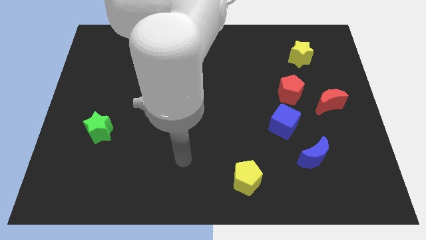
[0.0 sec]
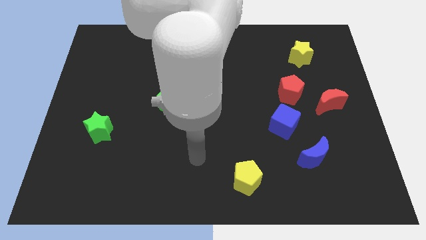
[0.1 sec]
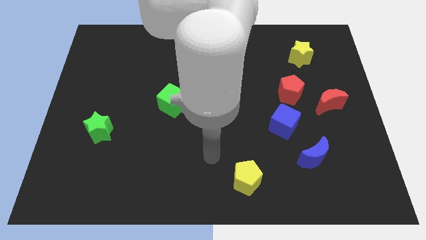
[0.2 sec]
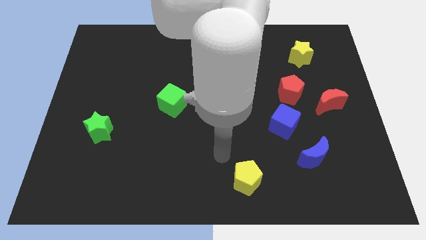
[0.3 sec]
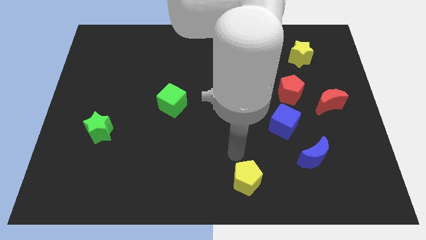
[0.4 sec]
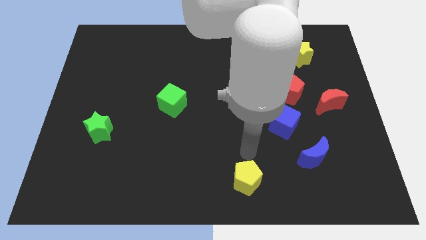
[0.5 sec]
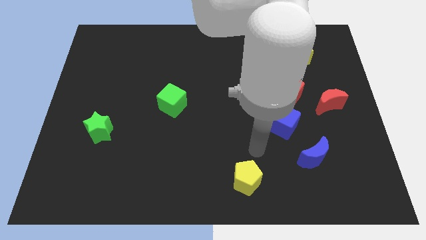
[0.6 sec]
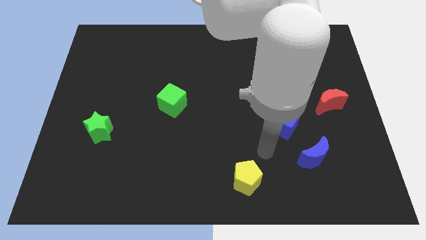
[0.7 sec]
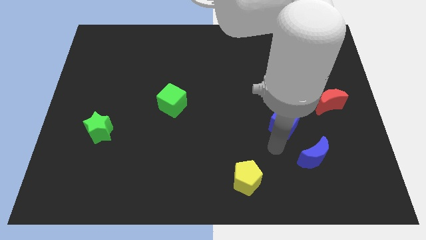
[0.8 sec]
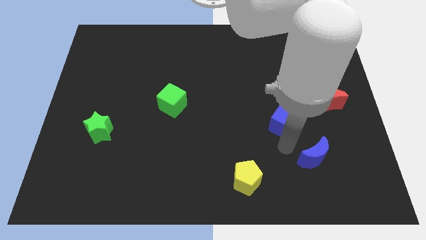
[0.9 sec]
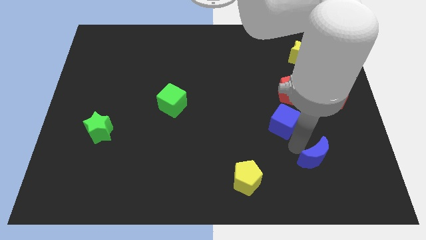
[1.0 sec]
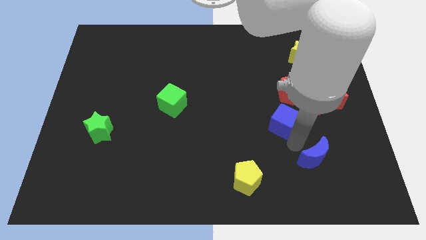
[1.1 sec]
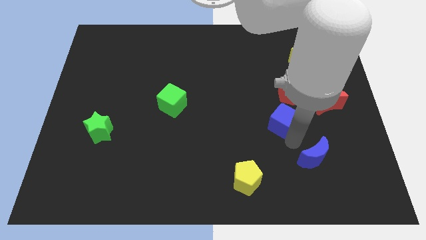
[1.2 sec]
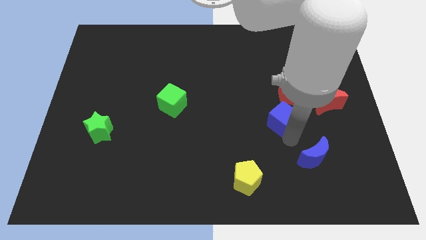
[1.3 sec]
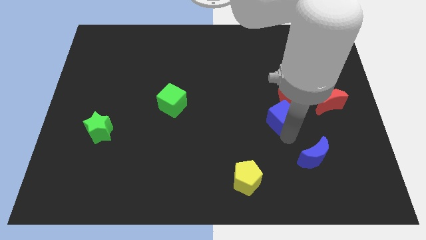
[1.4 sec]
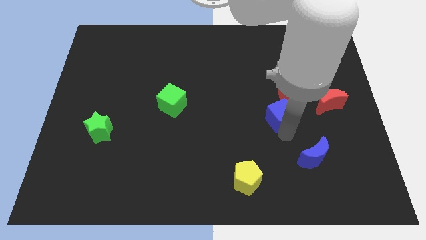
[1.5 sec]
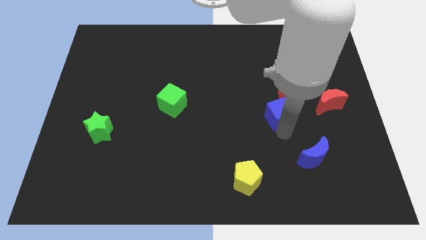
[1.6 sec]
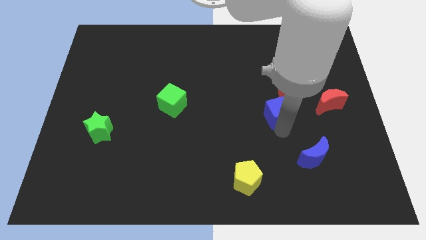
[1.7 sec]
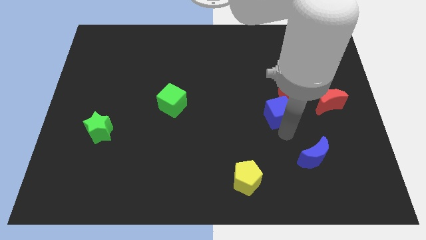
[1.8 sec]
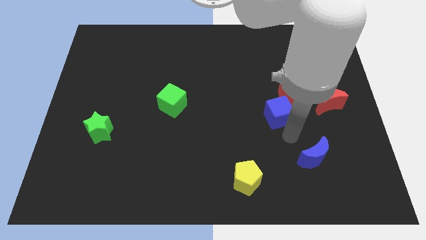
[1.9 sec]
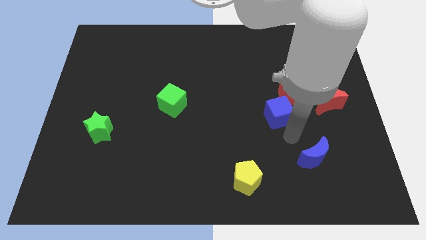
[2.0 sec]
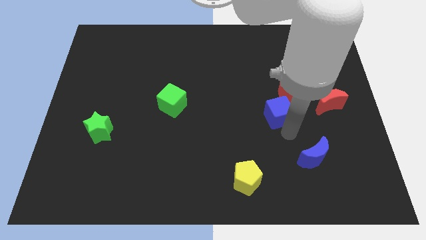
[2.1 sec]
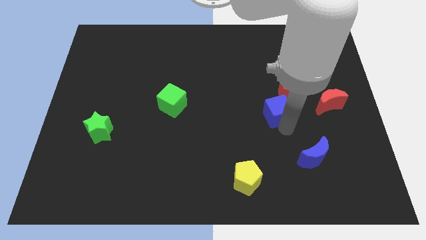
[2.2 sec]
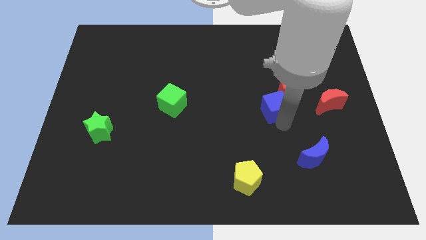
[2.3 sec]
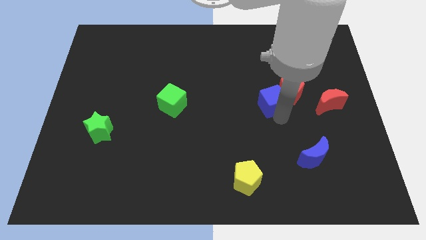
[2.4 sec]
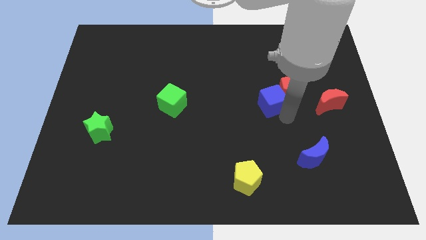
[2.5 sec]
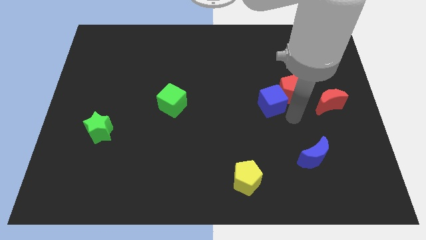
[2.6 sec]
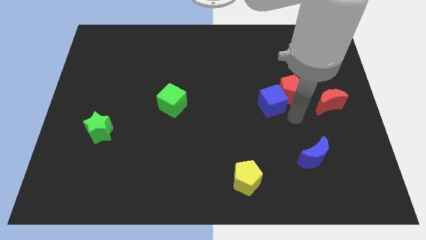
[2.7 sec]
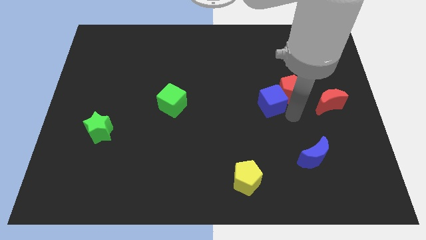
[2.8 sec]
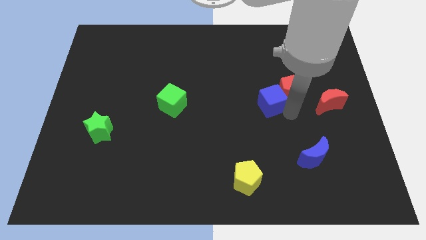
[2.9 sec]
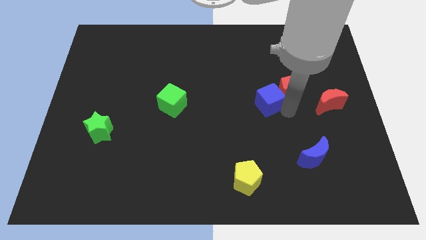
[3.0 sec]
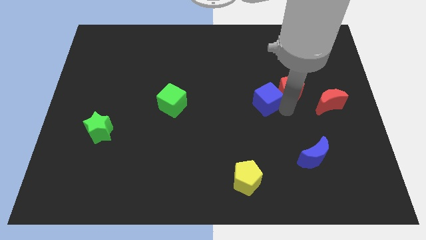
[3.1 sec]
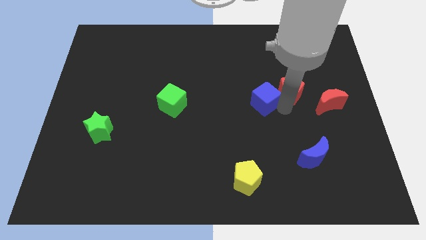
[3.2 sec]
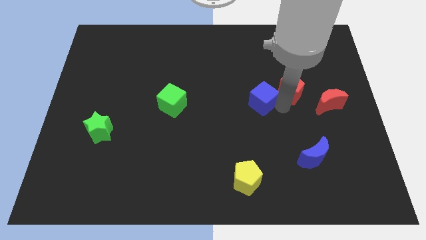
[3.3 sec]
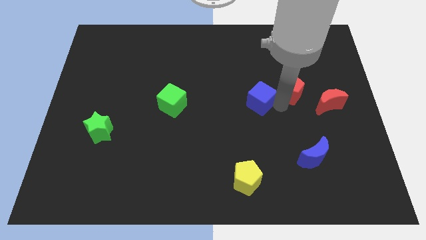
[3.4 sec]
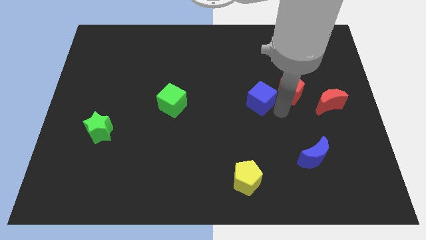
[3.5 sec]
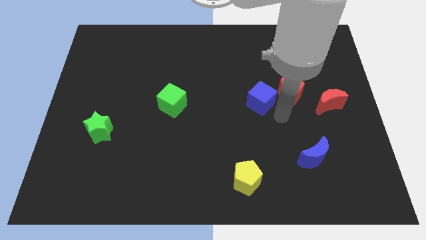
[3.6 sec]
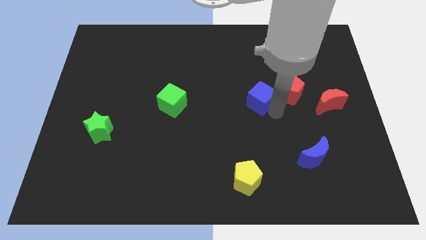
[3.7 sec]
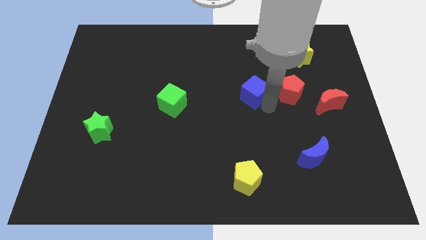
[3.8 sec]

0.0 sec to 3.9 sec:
slightly move the blue cube up

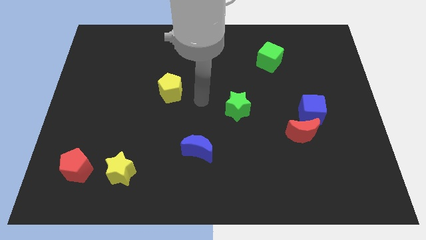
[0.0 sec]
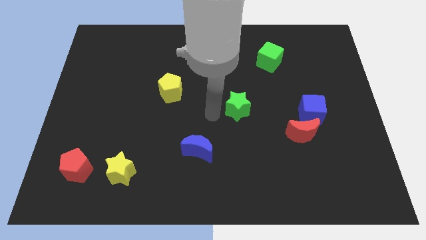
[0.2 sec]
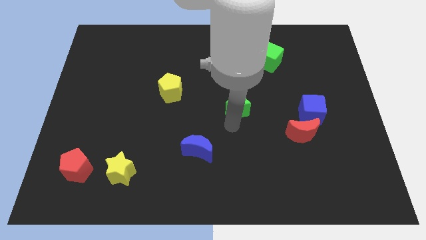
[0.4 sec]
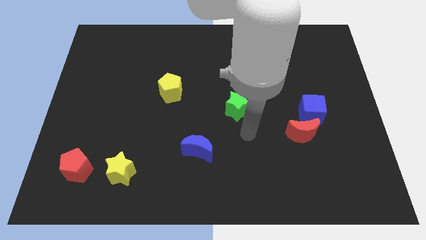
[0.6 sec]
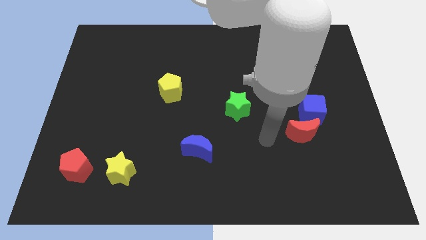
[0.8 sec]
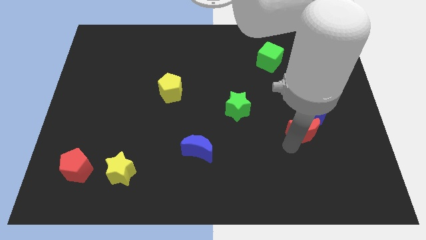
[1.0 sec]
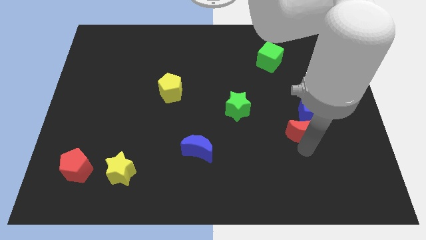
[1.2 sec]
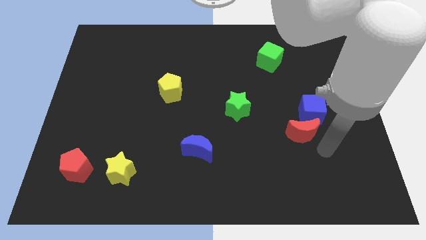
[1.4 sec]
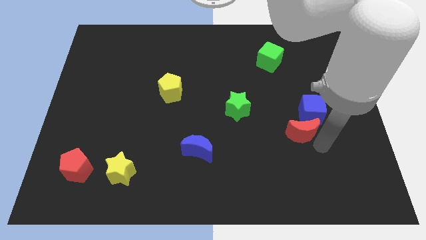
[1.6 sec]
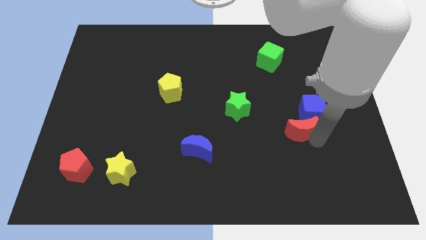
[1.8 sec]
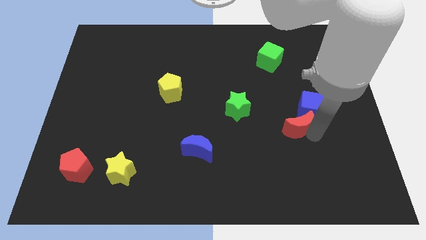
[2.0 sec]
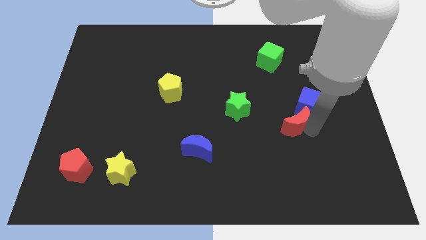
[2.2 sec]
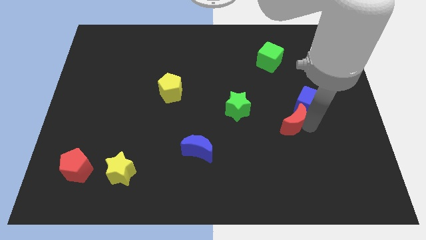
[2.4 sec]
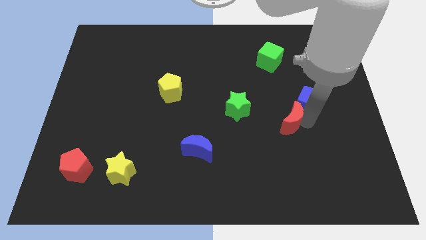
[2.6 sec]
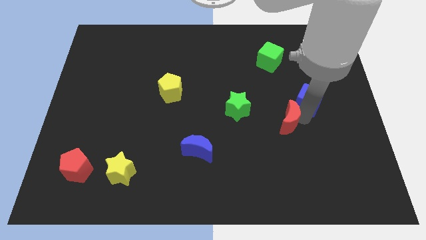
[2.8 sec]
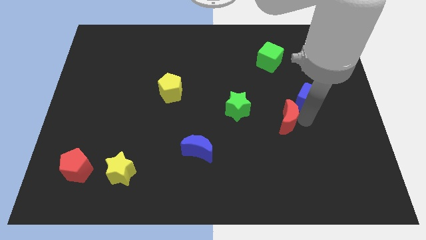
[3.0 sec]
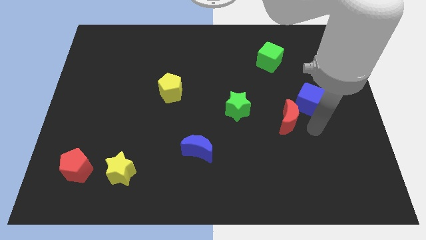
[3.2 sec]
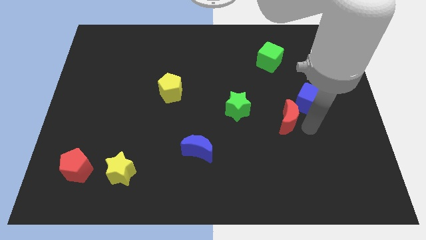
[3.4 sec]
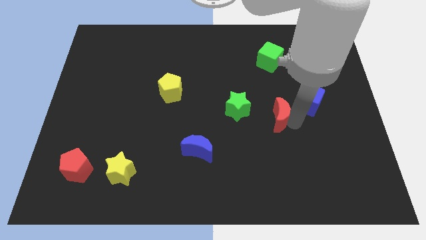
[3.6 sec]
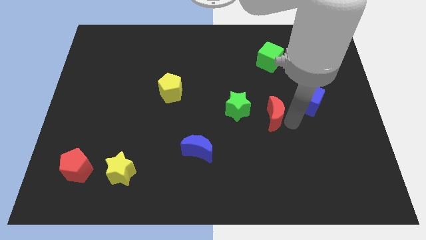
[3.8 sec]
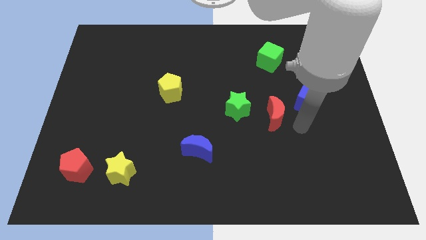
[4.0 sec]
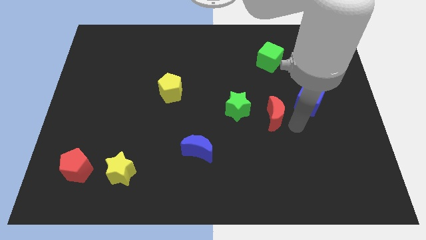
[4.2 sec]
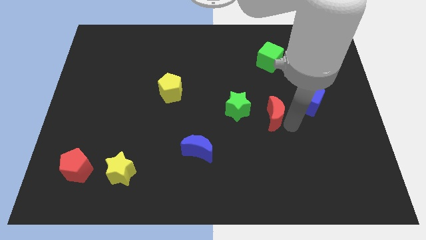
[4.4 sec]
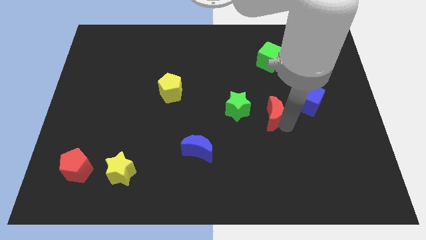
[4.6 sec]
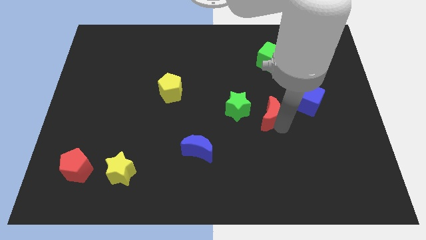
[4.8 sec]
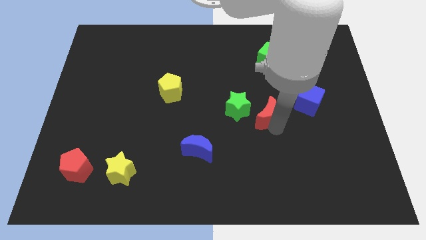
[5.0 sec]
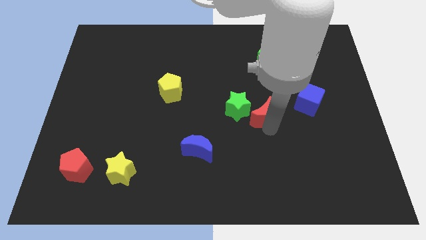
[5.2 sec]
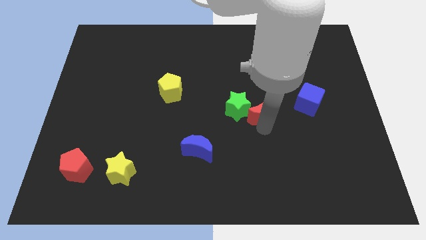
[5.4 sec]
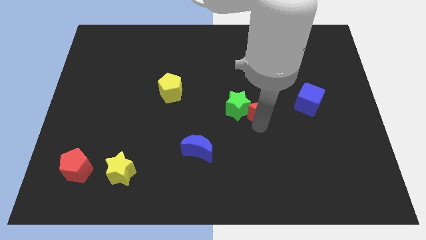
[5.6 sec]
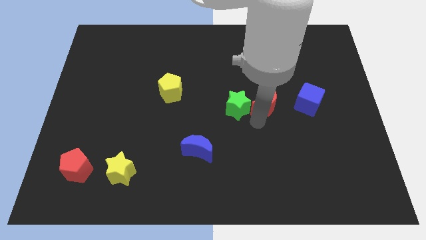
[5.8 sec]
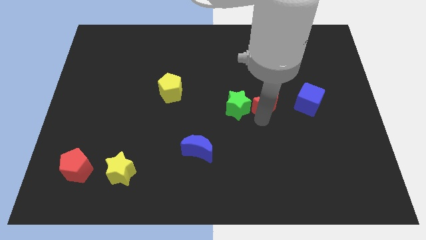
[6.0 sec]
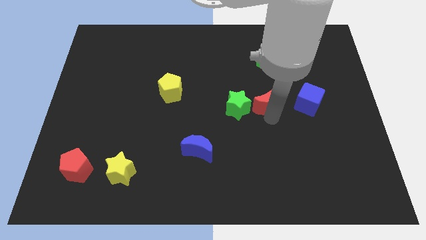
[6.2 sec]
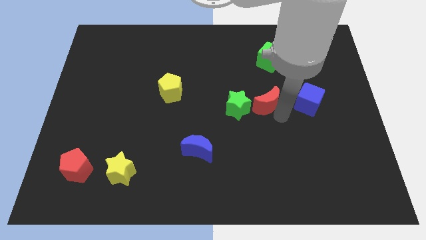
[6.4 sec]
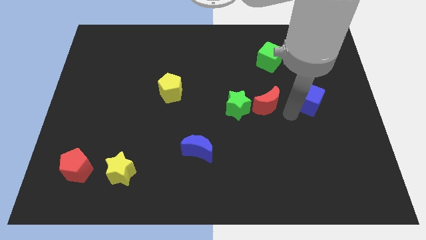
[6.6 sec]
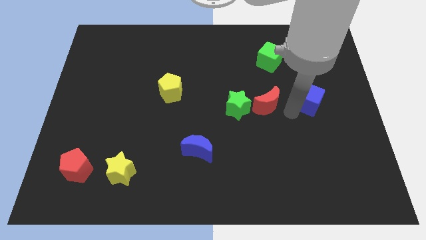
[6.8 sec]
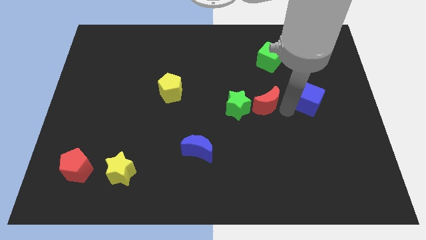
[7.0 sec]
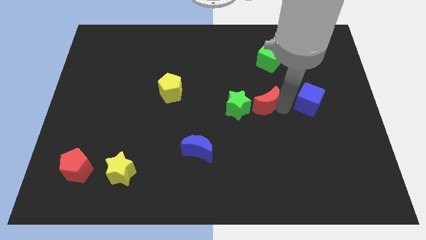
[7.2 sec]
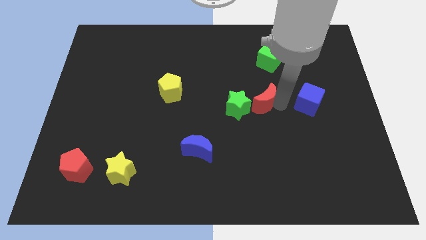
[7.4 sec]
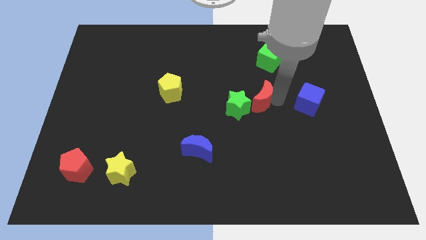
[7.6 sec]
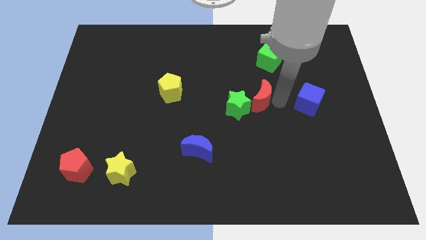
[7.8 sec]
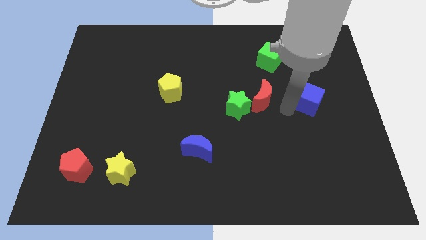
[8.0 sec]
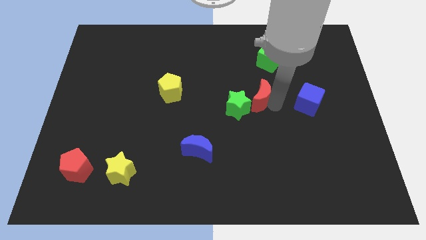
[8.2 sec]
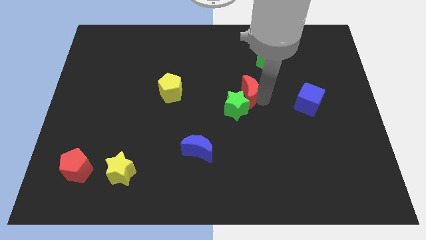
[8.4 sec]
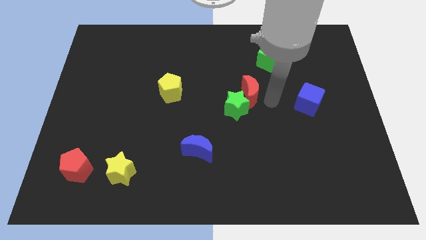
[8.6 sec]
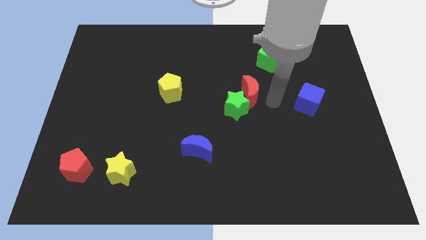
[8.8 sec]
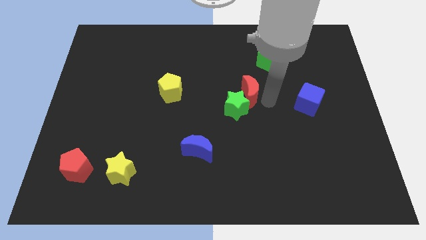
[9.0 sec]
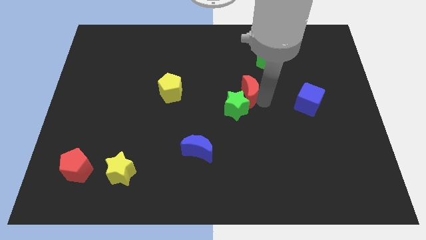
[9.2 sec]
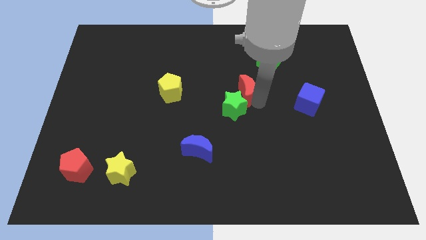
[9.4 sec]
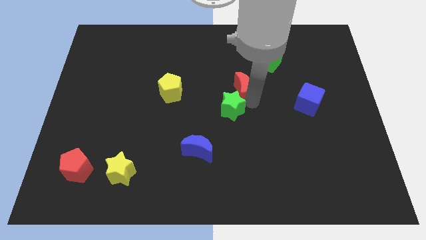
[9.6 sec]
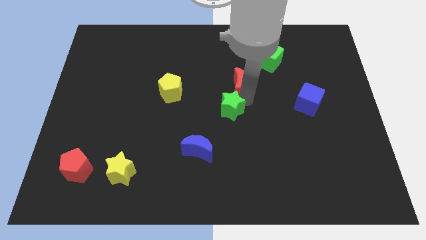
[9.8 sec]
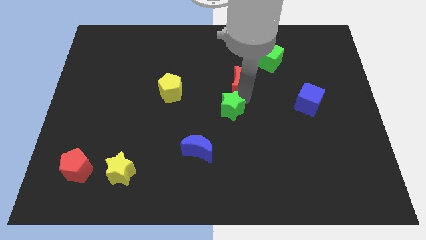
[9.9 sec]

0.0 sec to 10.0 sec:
push the red moon up and left
